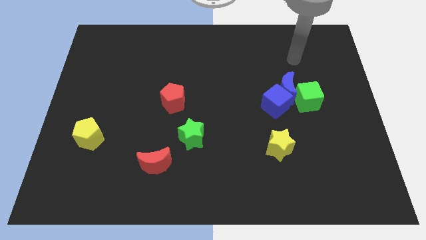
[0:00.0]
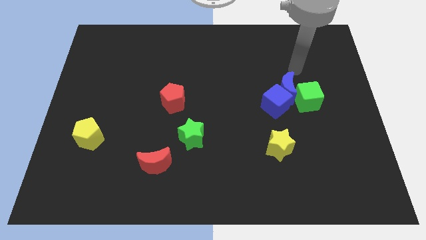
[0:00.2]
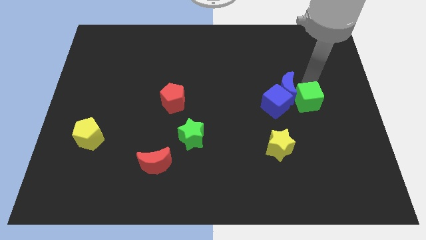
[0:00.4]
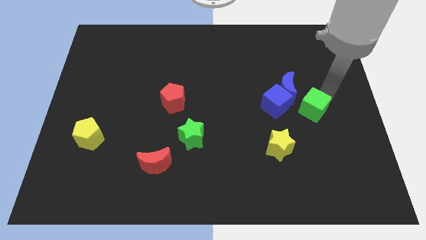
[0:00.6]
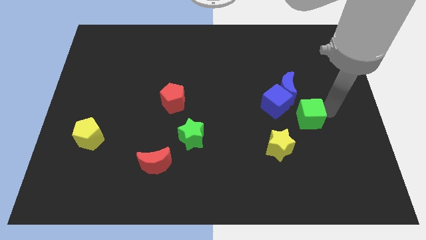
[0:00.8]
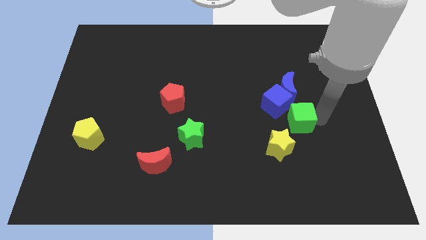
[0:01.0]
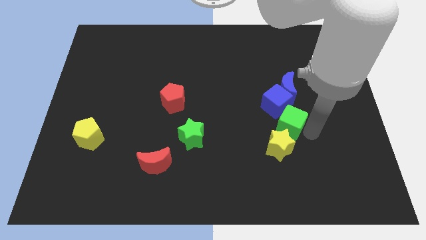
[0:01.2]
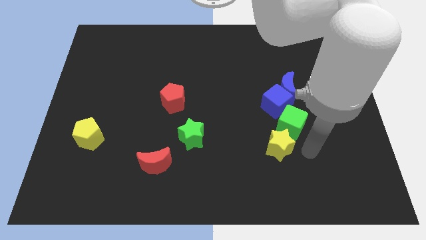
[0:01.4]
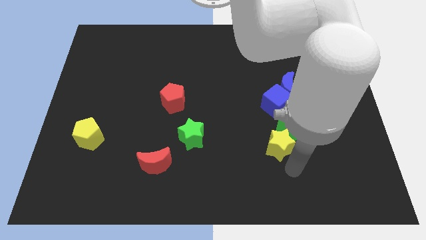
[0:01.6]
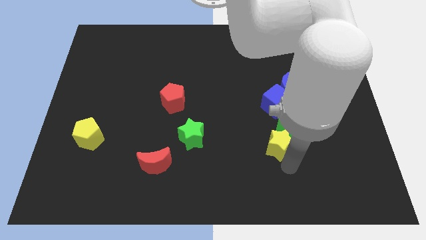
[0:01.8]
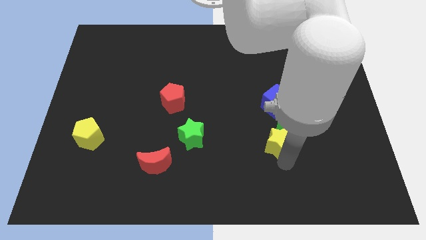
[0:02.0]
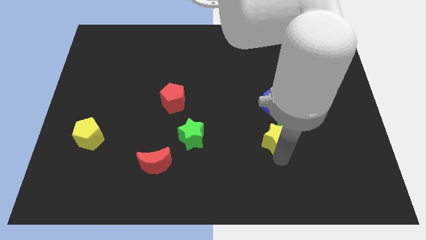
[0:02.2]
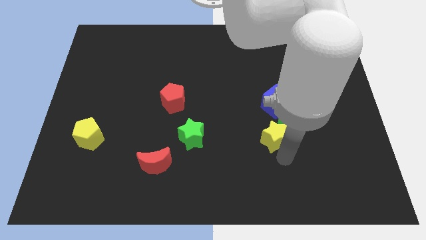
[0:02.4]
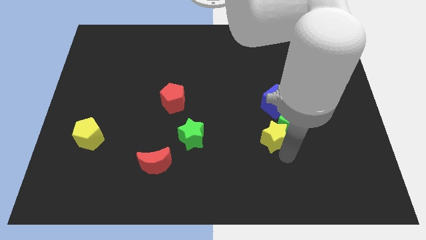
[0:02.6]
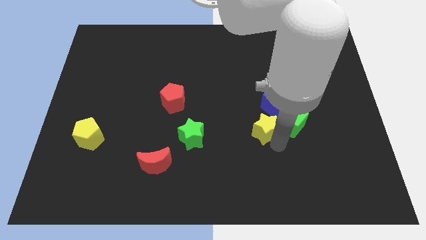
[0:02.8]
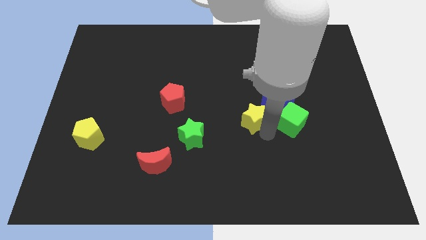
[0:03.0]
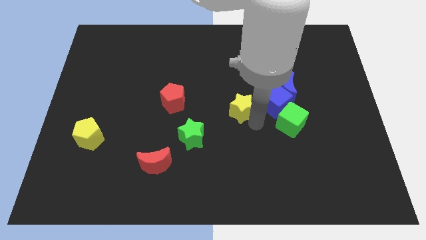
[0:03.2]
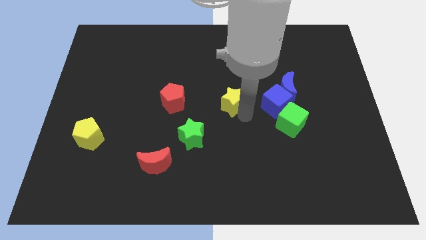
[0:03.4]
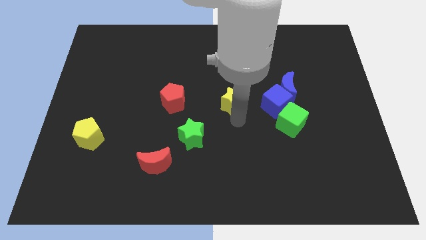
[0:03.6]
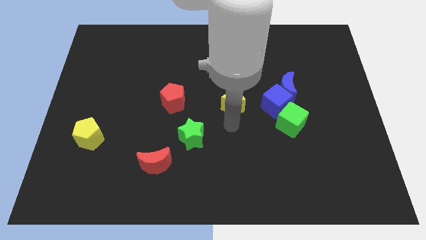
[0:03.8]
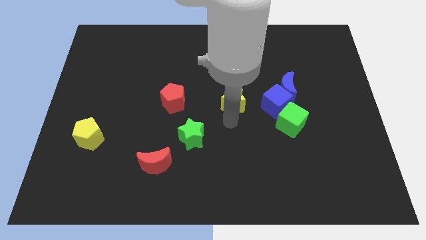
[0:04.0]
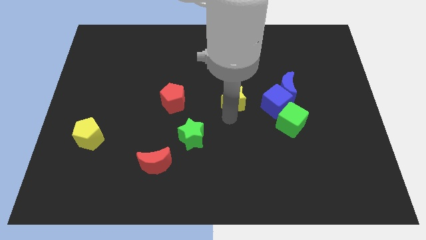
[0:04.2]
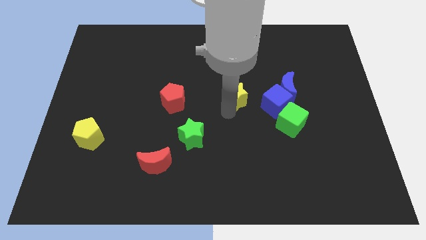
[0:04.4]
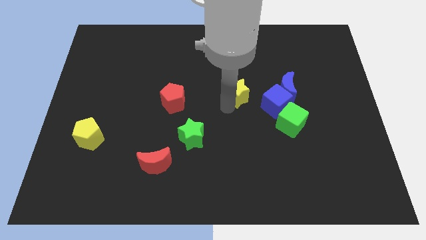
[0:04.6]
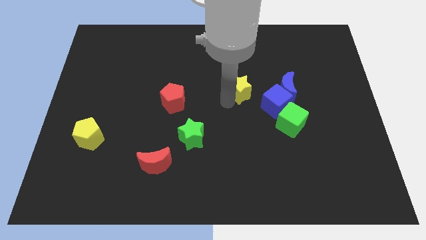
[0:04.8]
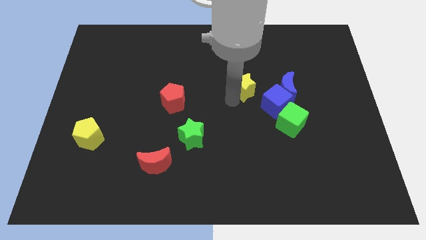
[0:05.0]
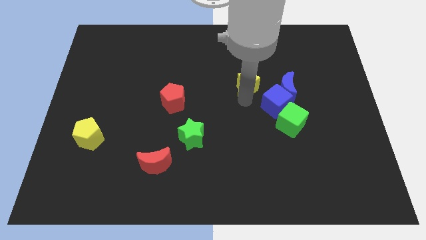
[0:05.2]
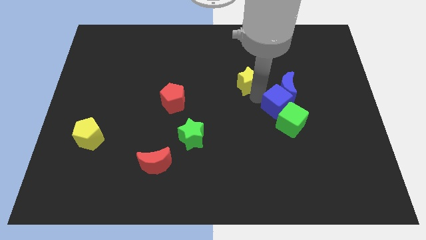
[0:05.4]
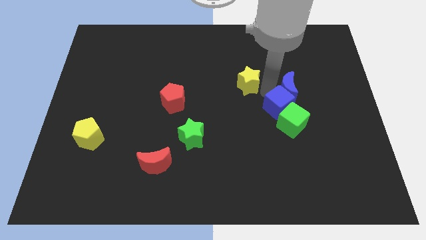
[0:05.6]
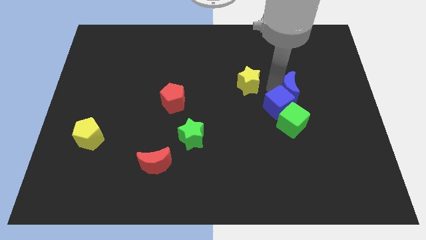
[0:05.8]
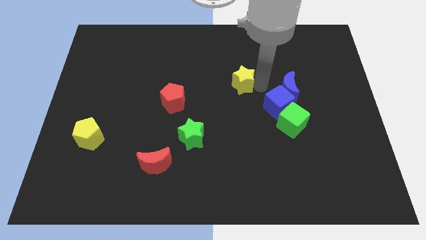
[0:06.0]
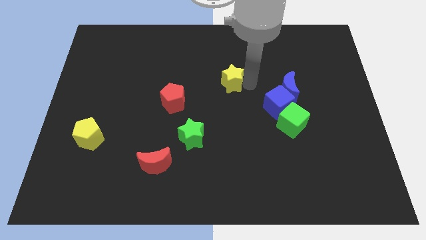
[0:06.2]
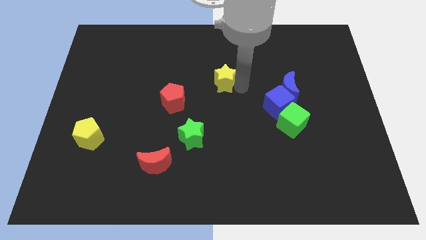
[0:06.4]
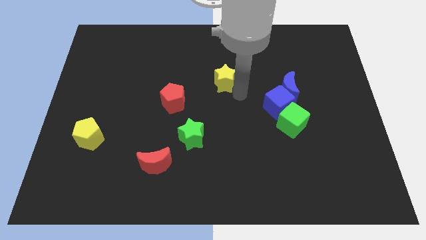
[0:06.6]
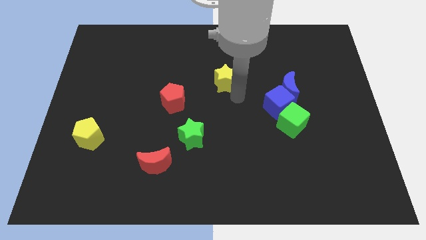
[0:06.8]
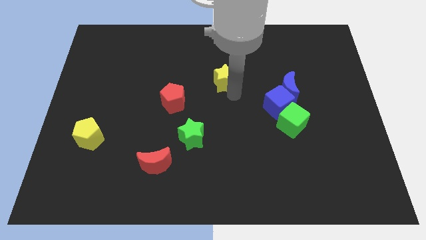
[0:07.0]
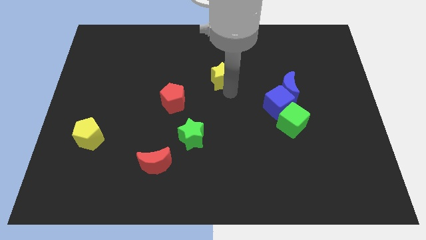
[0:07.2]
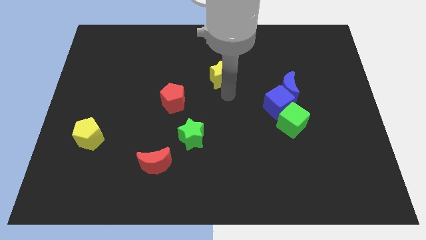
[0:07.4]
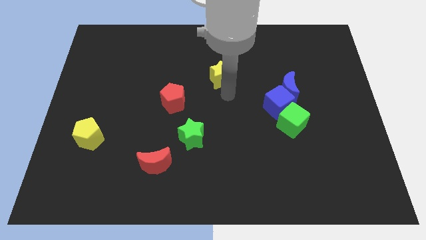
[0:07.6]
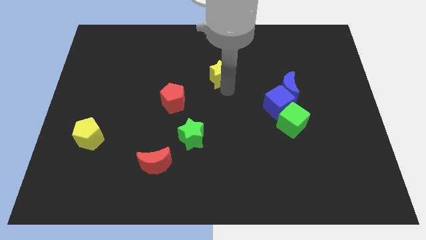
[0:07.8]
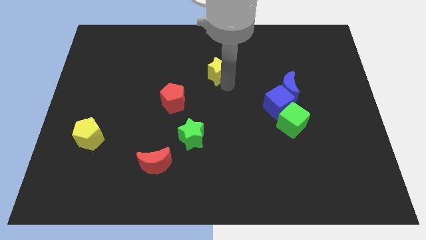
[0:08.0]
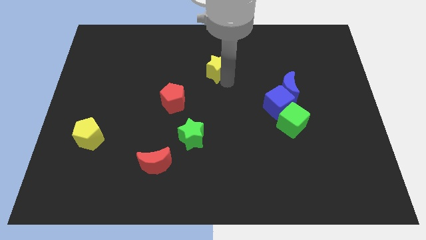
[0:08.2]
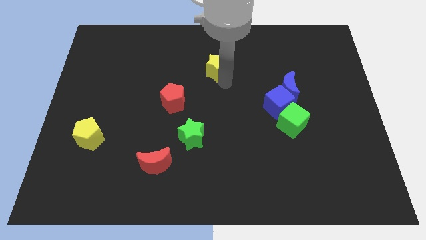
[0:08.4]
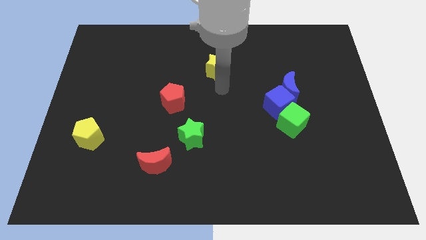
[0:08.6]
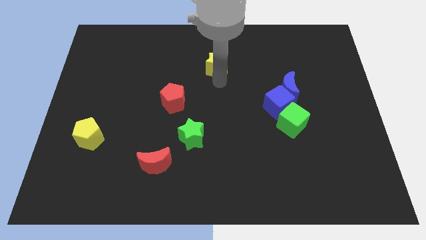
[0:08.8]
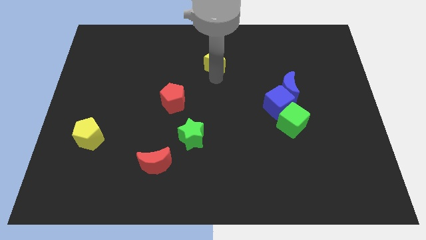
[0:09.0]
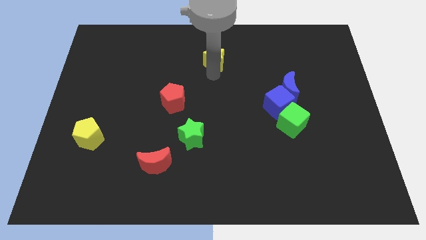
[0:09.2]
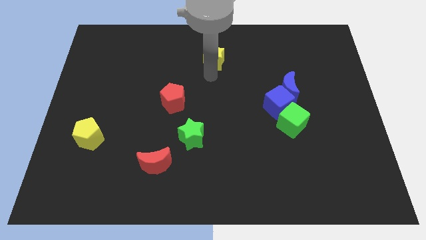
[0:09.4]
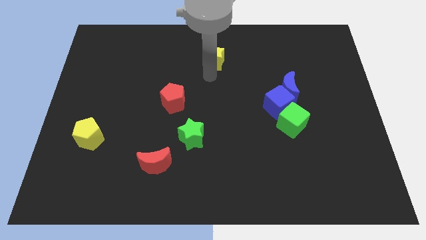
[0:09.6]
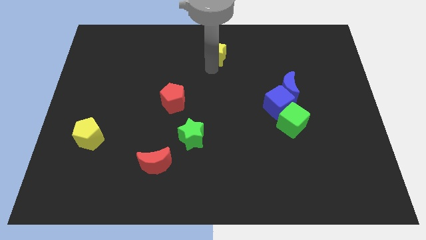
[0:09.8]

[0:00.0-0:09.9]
slide the yellow star to the top

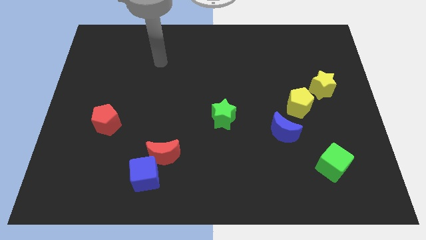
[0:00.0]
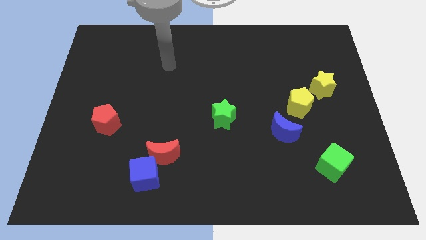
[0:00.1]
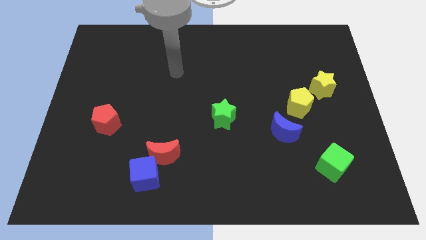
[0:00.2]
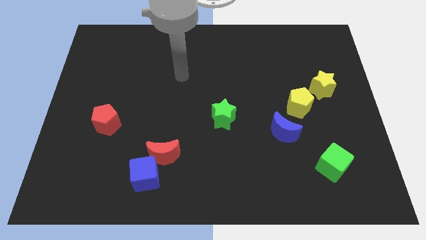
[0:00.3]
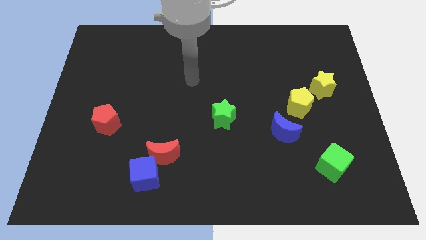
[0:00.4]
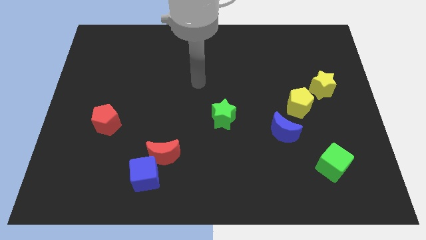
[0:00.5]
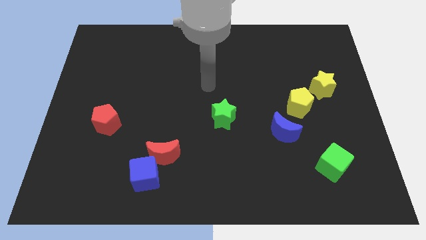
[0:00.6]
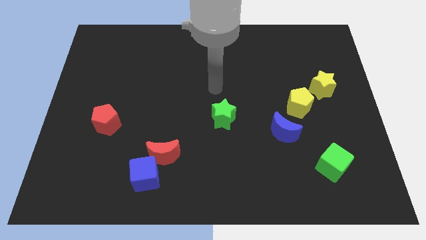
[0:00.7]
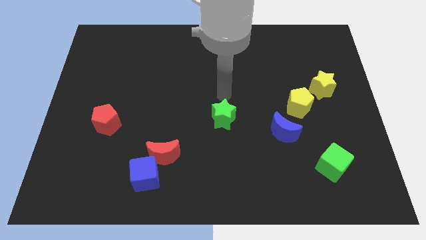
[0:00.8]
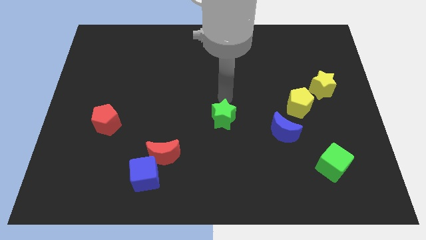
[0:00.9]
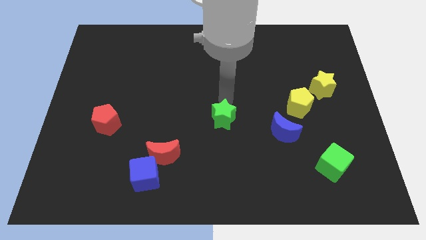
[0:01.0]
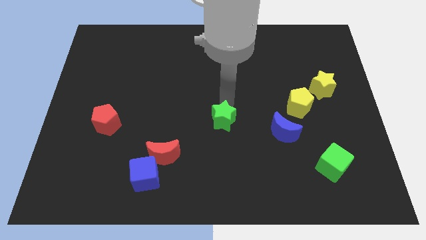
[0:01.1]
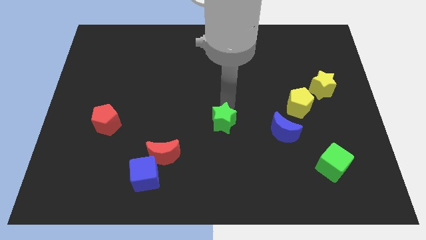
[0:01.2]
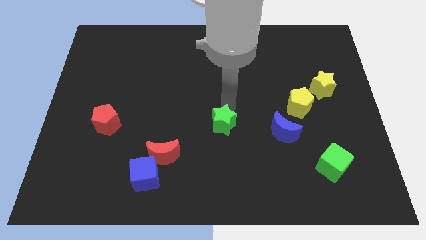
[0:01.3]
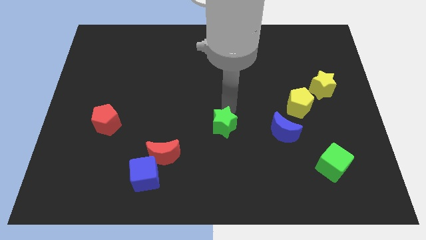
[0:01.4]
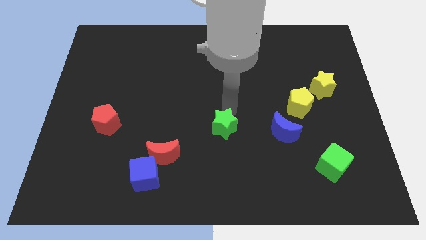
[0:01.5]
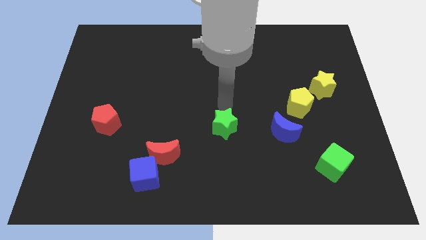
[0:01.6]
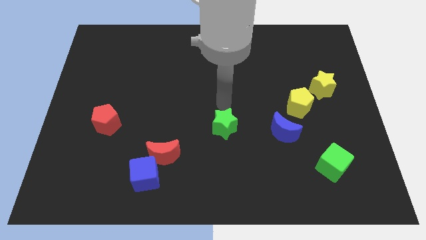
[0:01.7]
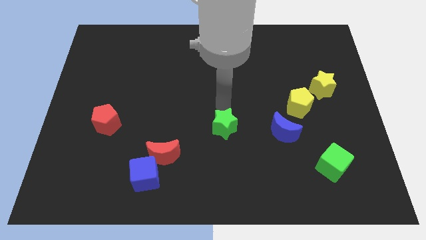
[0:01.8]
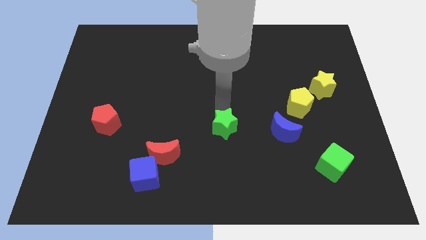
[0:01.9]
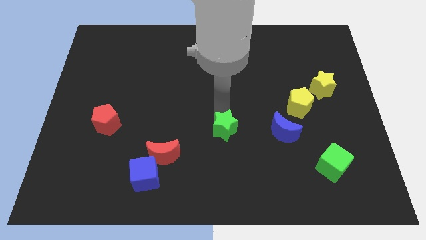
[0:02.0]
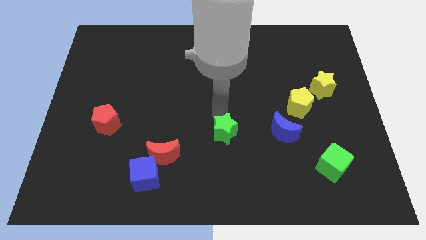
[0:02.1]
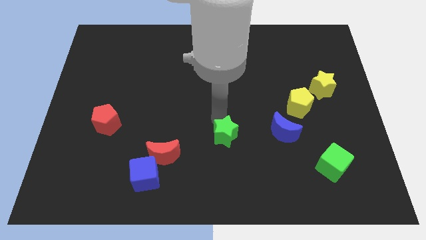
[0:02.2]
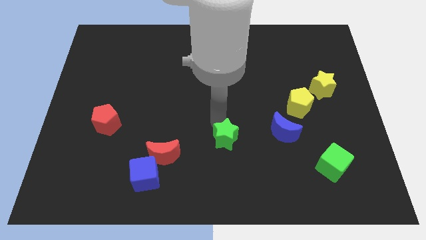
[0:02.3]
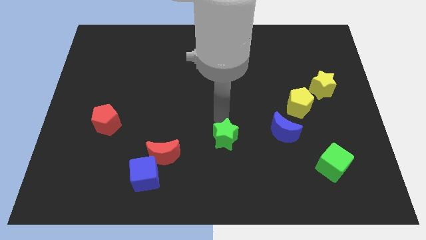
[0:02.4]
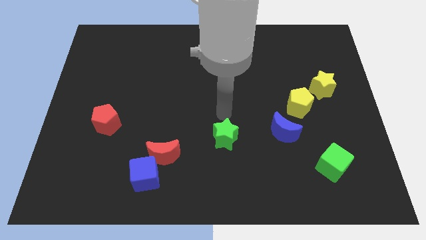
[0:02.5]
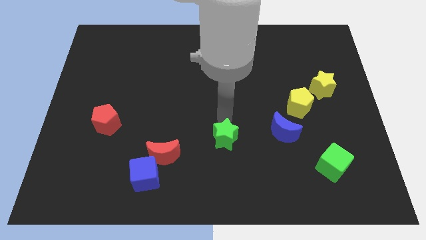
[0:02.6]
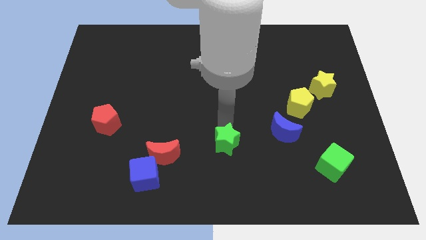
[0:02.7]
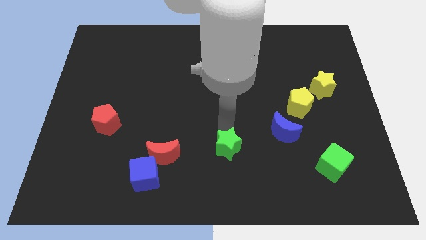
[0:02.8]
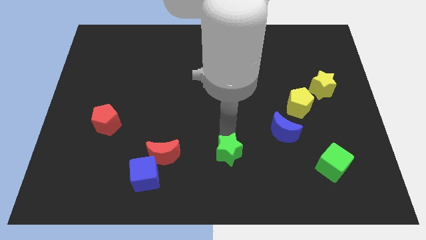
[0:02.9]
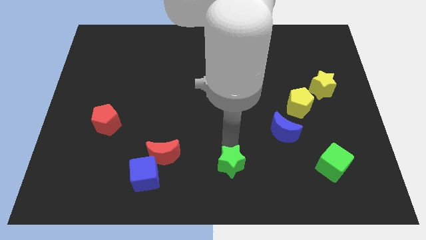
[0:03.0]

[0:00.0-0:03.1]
push the green star to the bottom
